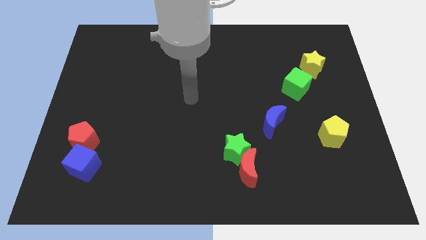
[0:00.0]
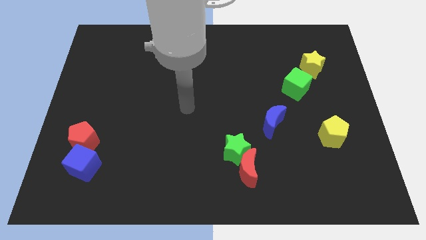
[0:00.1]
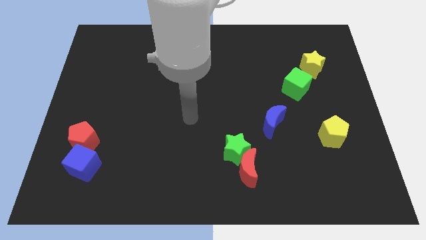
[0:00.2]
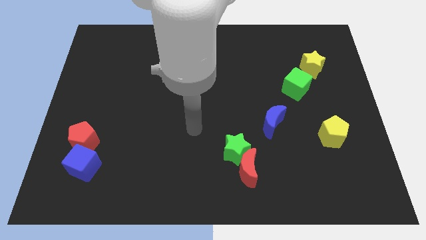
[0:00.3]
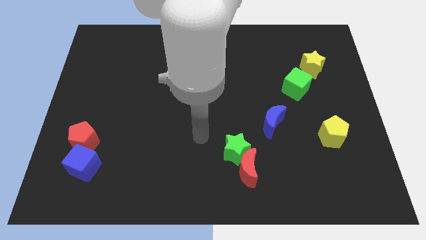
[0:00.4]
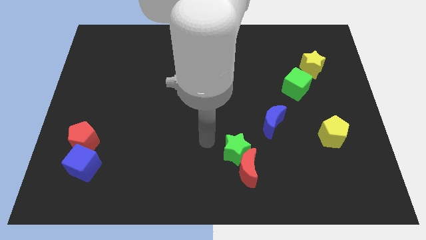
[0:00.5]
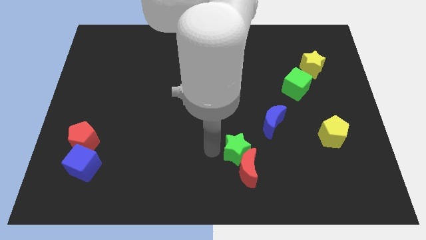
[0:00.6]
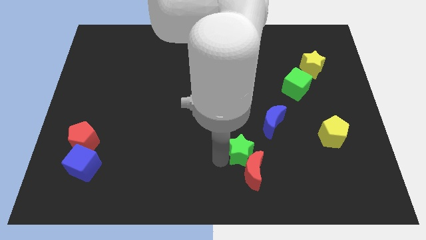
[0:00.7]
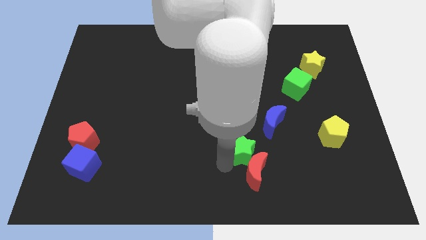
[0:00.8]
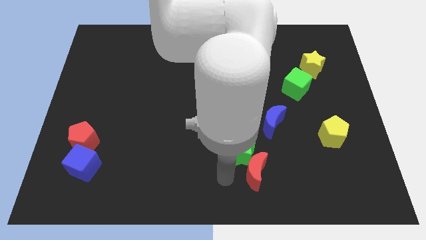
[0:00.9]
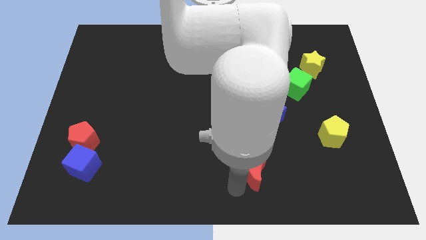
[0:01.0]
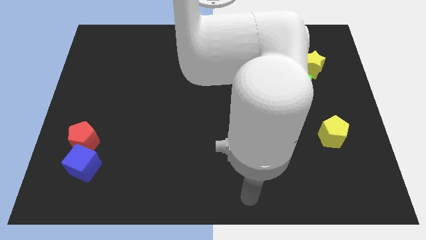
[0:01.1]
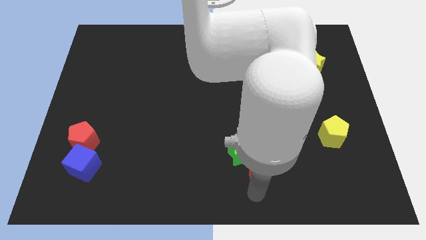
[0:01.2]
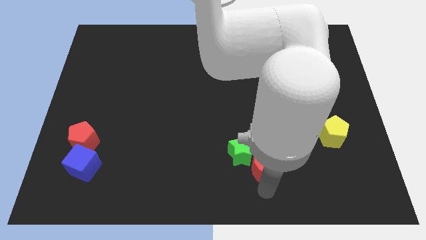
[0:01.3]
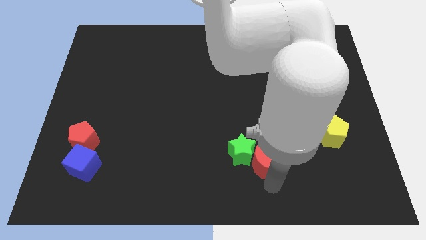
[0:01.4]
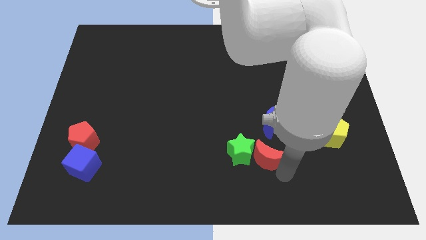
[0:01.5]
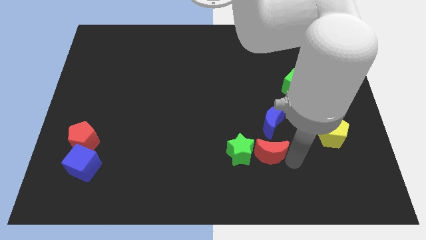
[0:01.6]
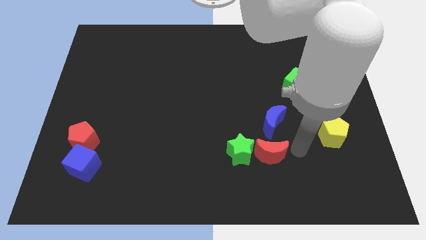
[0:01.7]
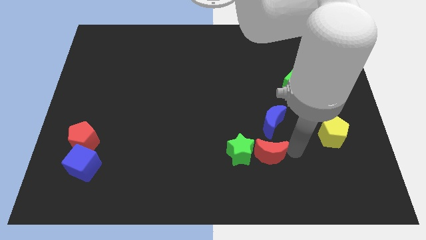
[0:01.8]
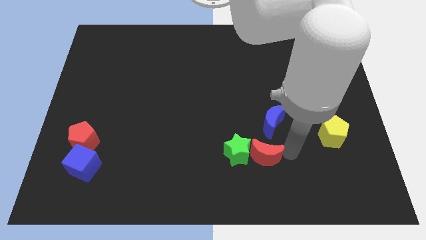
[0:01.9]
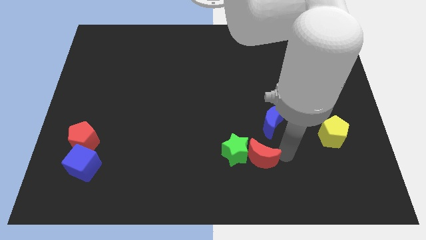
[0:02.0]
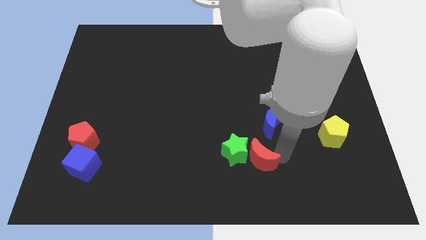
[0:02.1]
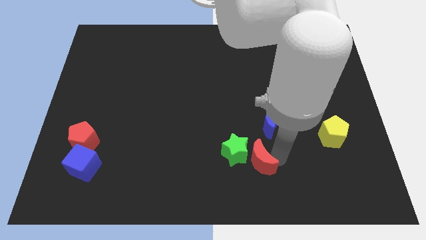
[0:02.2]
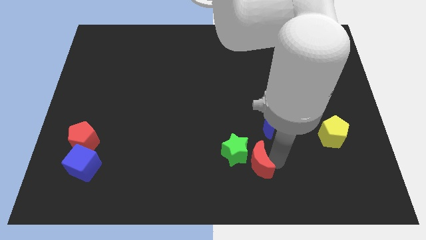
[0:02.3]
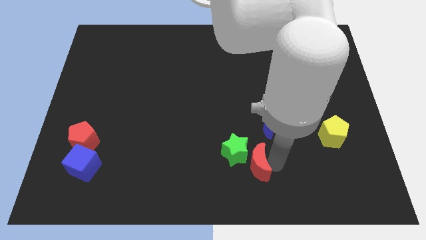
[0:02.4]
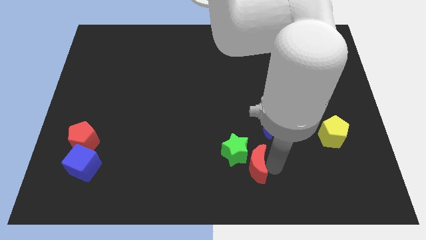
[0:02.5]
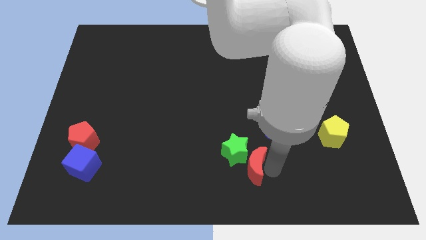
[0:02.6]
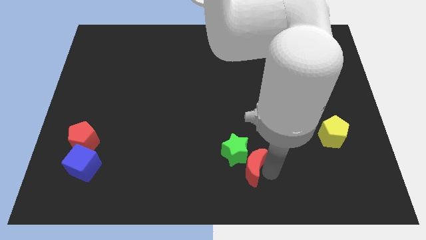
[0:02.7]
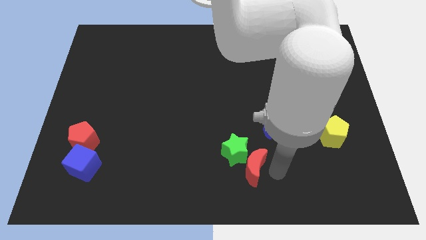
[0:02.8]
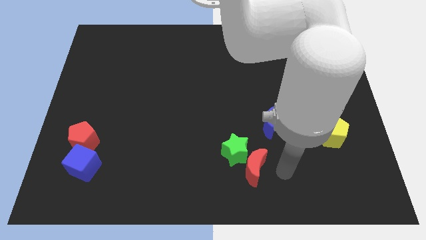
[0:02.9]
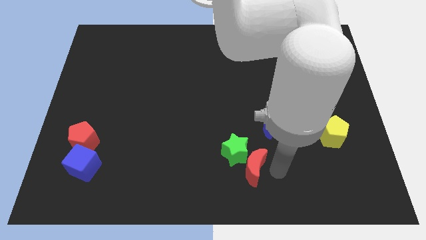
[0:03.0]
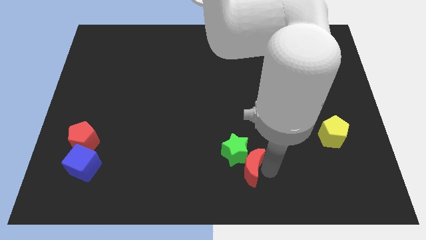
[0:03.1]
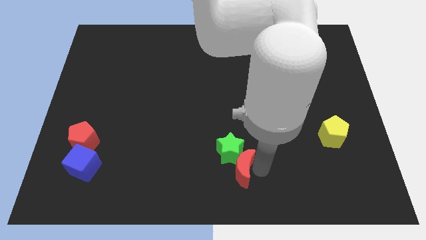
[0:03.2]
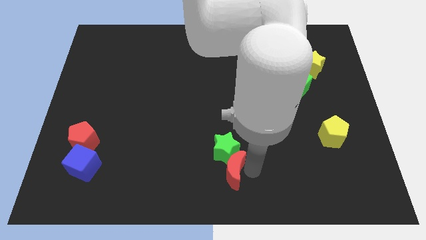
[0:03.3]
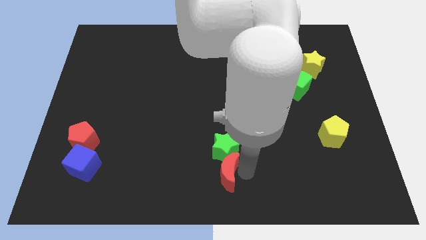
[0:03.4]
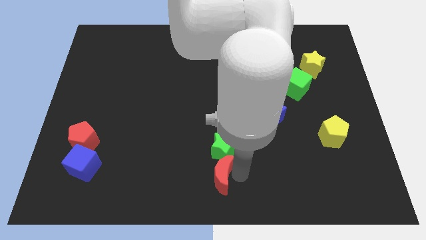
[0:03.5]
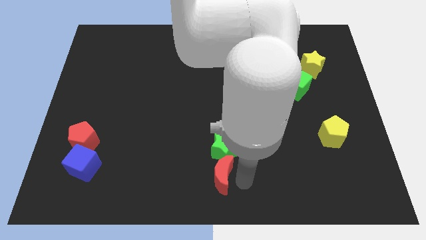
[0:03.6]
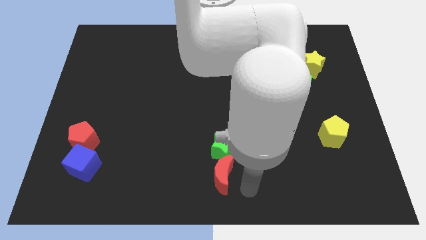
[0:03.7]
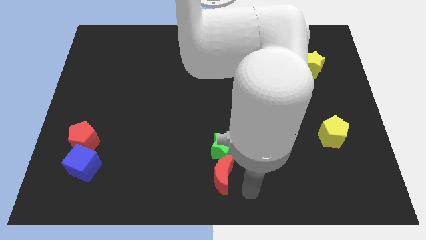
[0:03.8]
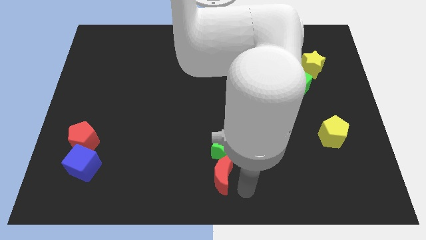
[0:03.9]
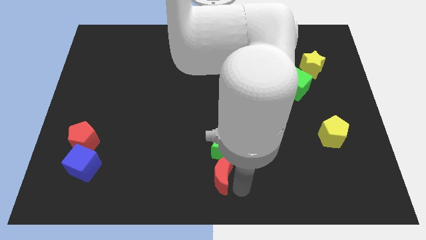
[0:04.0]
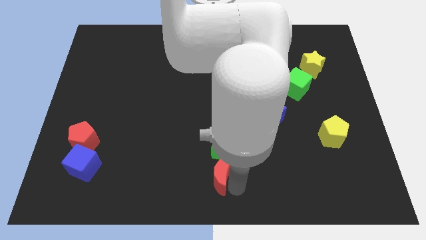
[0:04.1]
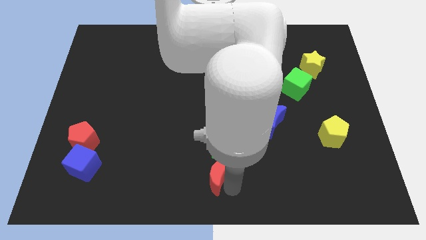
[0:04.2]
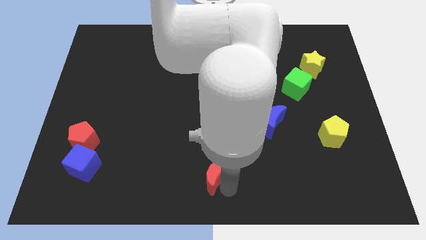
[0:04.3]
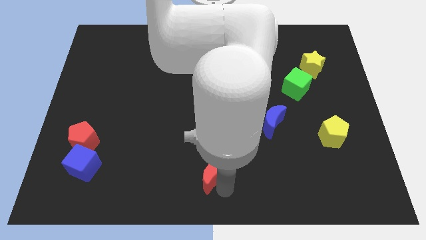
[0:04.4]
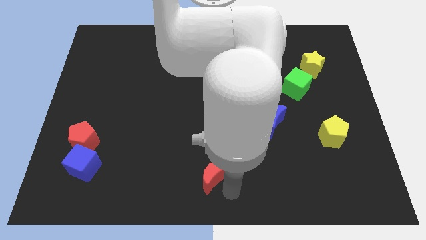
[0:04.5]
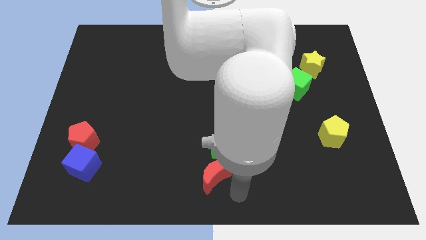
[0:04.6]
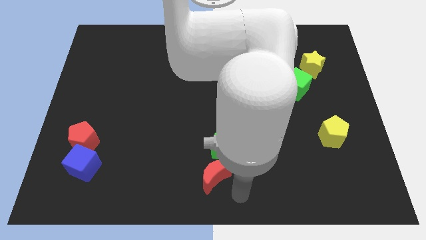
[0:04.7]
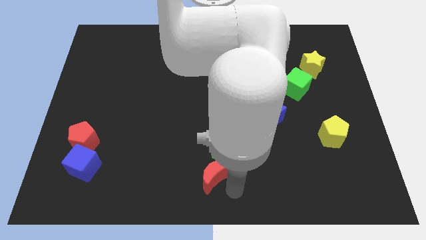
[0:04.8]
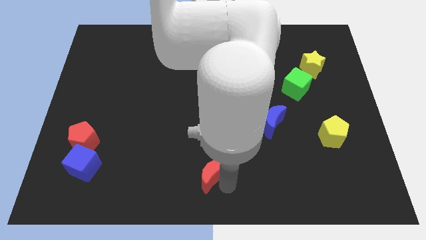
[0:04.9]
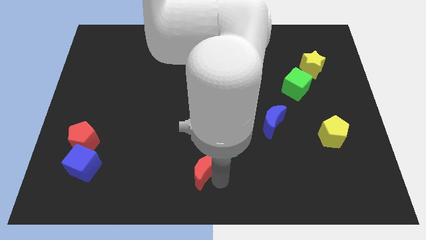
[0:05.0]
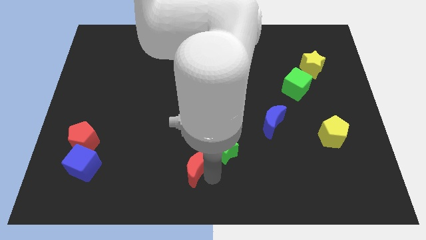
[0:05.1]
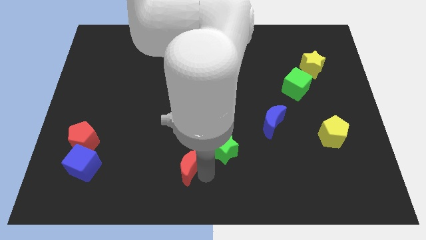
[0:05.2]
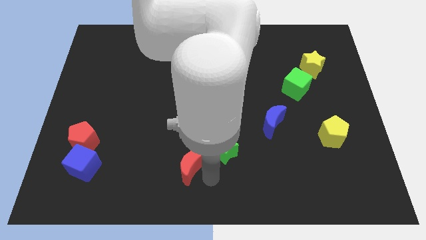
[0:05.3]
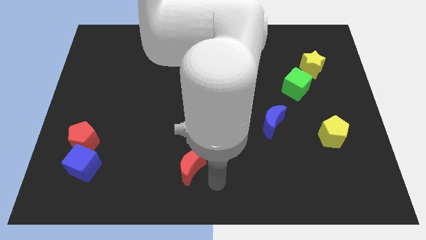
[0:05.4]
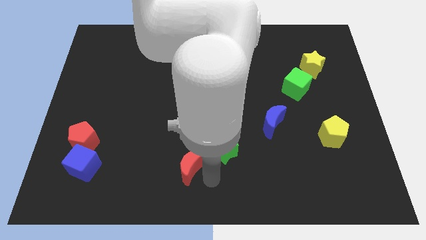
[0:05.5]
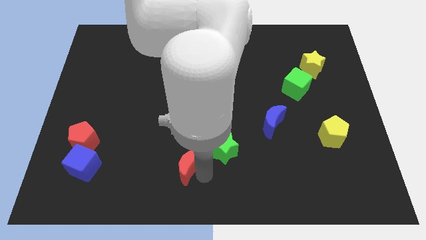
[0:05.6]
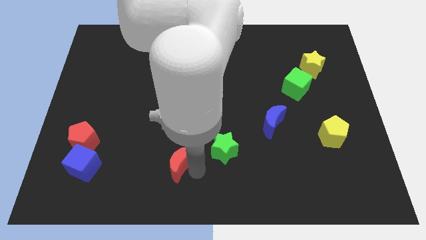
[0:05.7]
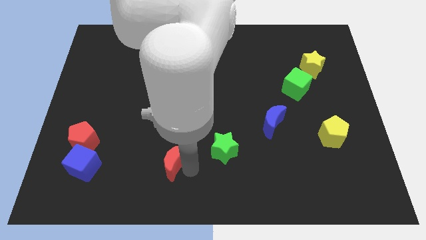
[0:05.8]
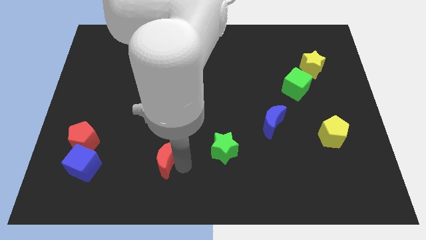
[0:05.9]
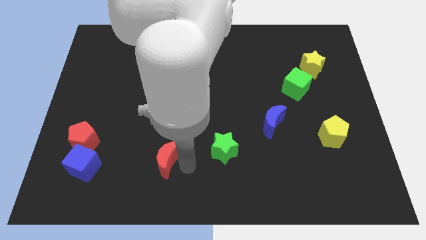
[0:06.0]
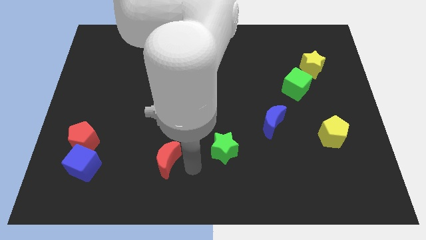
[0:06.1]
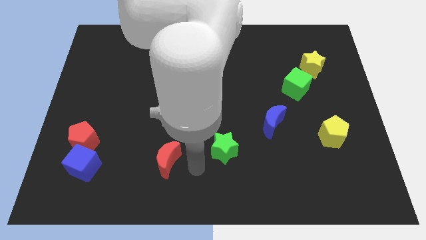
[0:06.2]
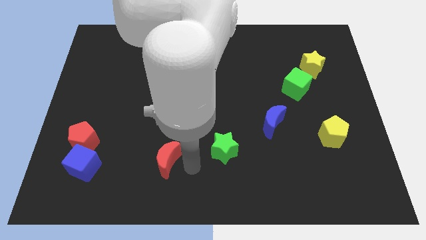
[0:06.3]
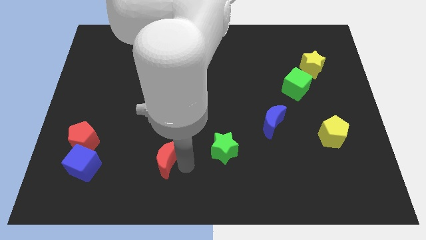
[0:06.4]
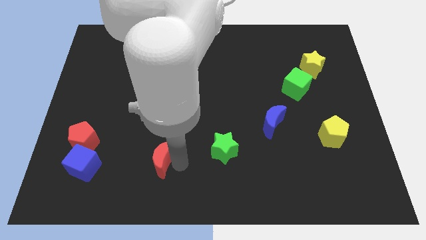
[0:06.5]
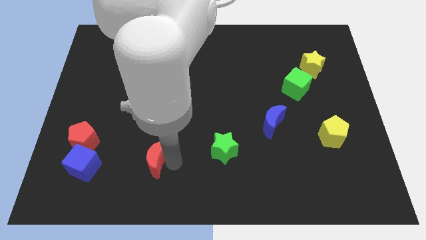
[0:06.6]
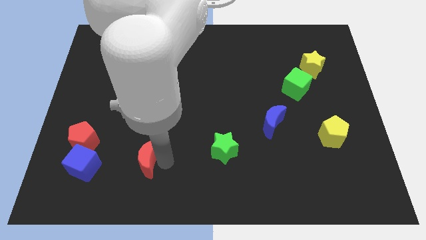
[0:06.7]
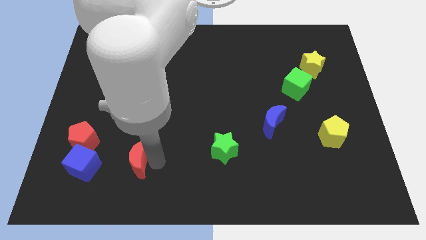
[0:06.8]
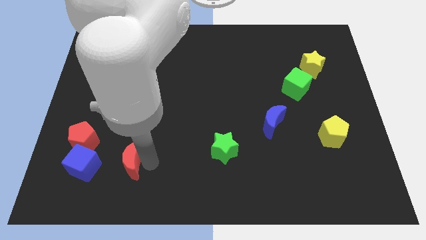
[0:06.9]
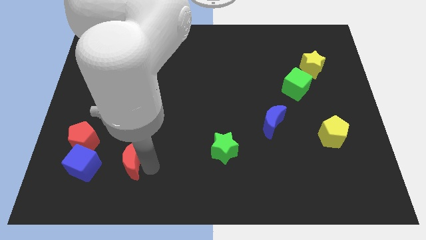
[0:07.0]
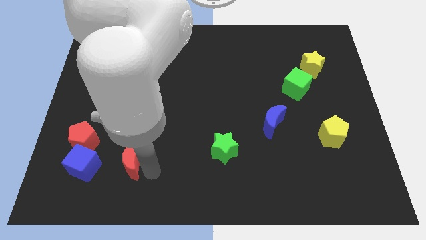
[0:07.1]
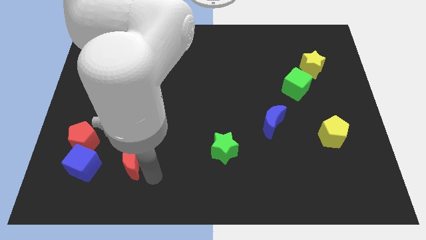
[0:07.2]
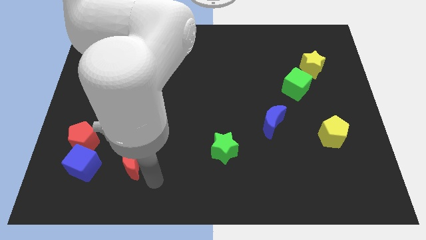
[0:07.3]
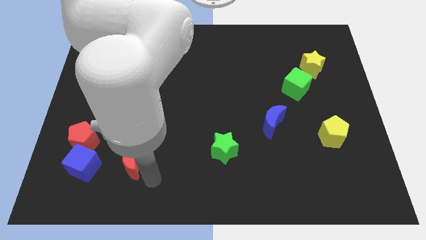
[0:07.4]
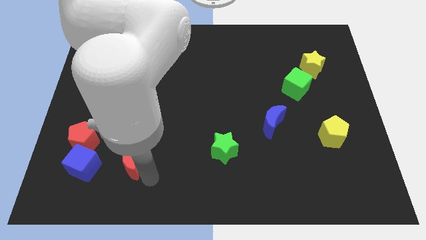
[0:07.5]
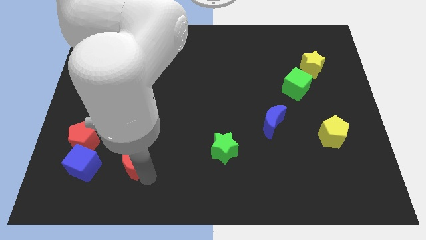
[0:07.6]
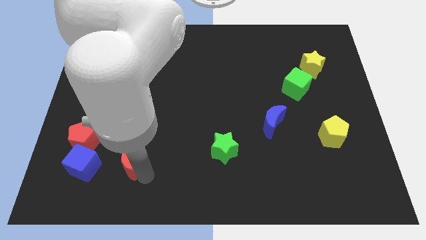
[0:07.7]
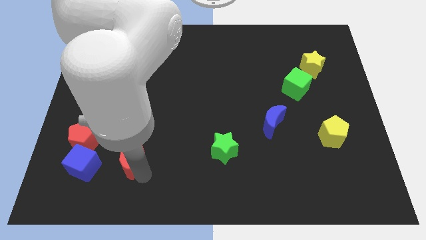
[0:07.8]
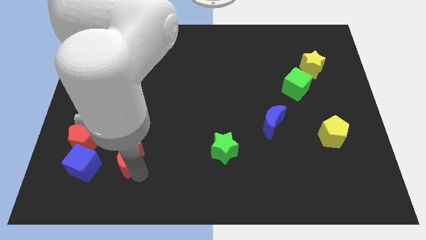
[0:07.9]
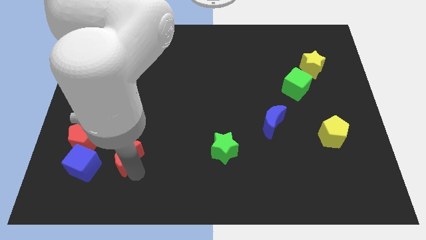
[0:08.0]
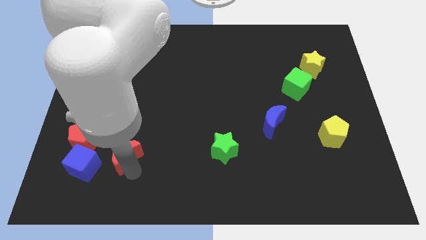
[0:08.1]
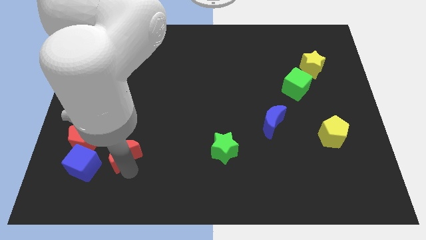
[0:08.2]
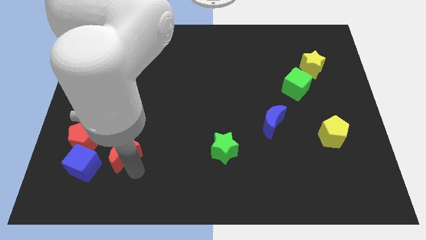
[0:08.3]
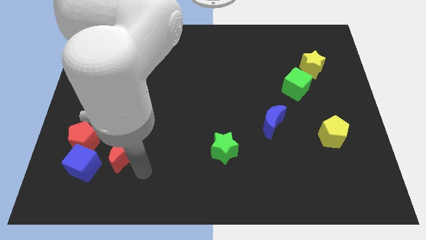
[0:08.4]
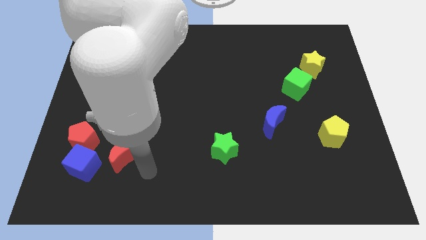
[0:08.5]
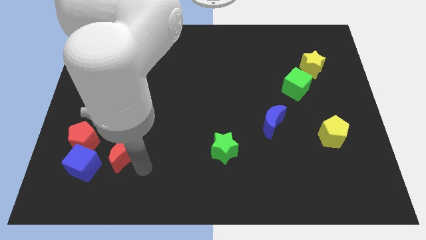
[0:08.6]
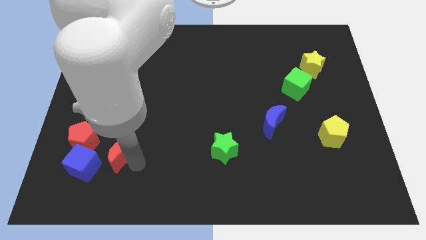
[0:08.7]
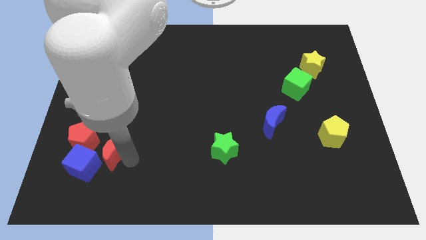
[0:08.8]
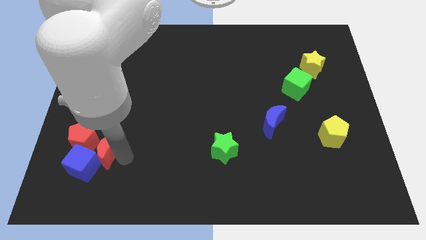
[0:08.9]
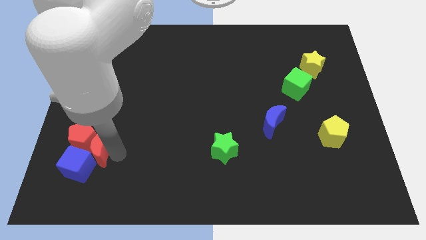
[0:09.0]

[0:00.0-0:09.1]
push the red moon to the red pentagon
